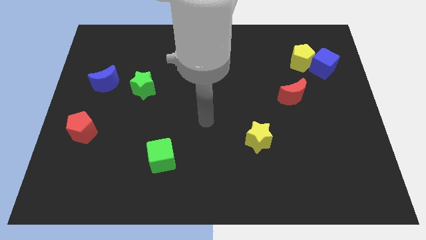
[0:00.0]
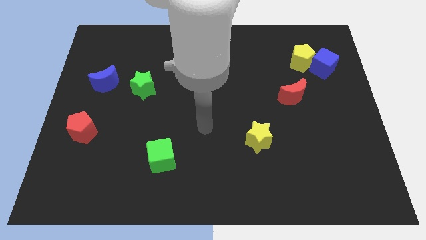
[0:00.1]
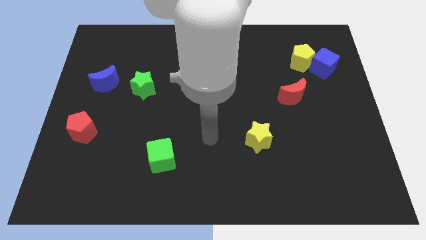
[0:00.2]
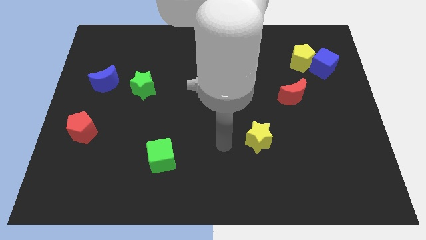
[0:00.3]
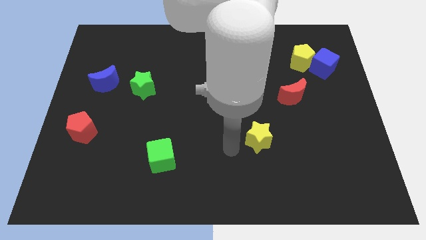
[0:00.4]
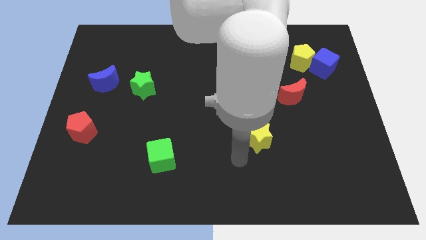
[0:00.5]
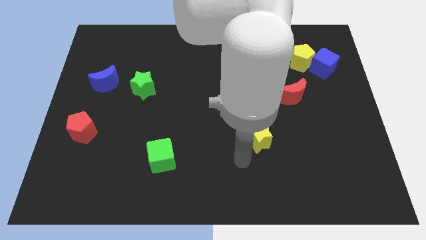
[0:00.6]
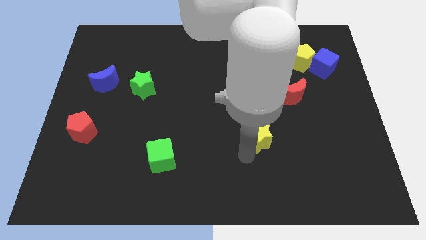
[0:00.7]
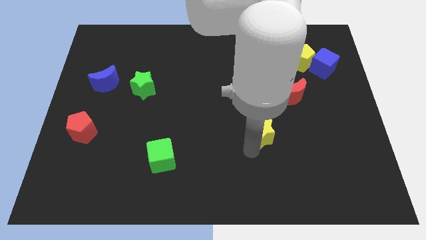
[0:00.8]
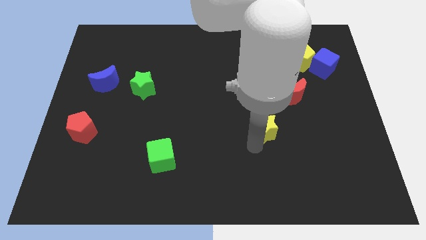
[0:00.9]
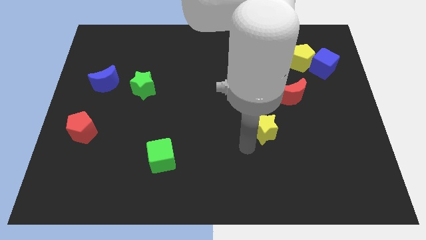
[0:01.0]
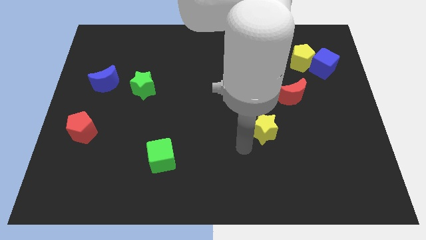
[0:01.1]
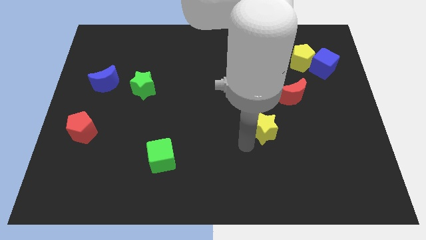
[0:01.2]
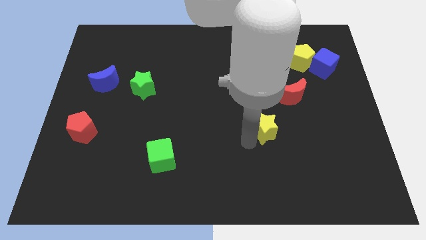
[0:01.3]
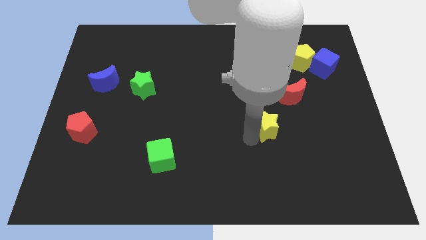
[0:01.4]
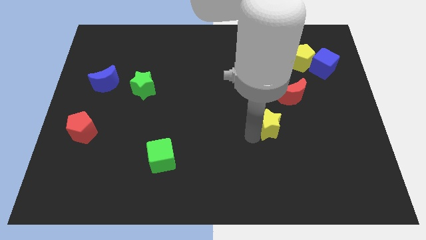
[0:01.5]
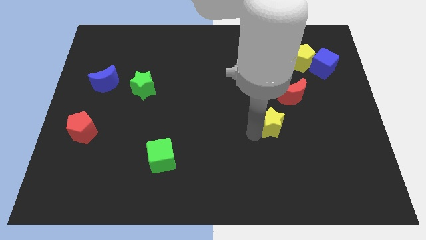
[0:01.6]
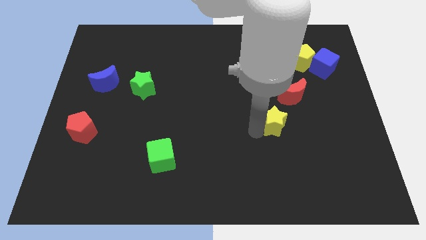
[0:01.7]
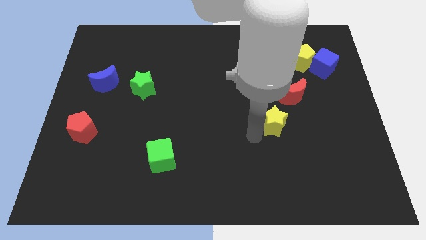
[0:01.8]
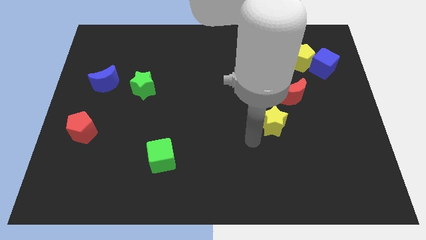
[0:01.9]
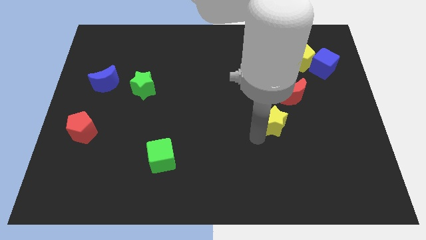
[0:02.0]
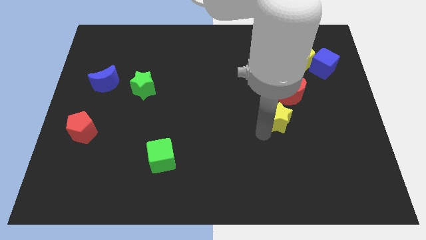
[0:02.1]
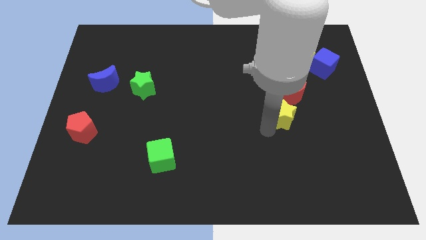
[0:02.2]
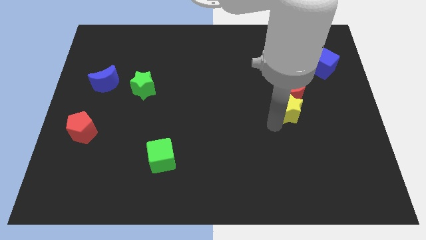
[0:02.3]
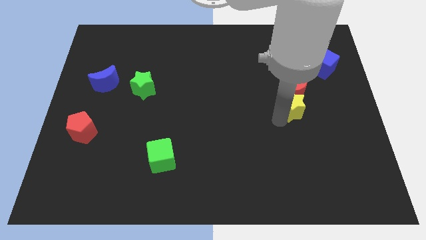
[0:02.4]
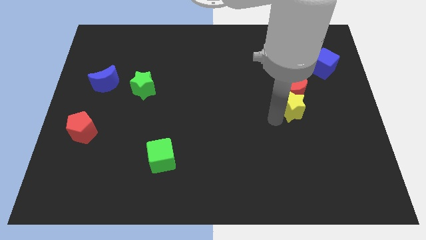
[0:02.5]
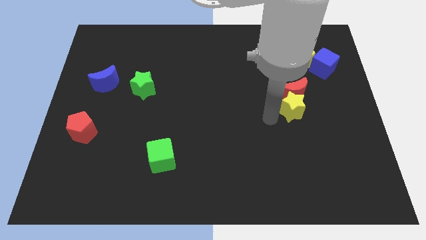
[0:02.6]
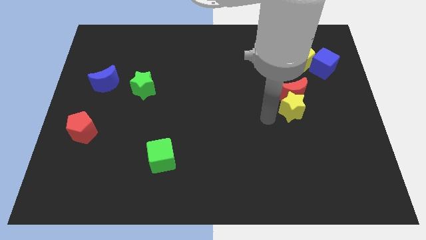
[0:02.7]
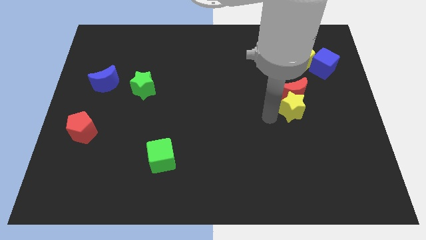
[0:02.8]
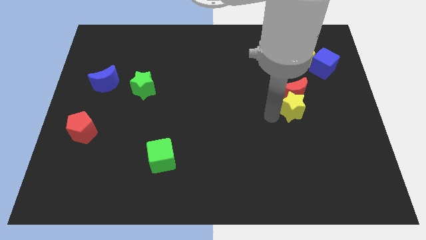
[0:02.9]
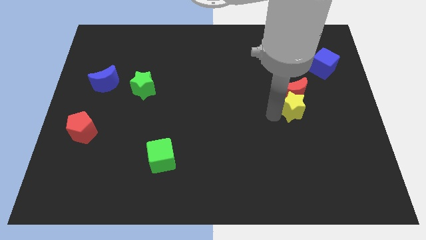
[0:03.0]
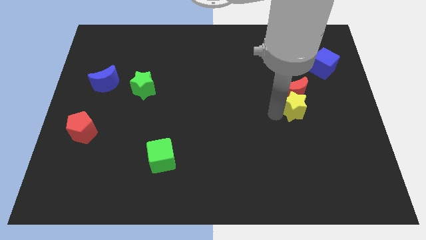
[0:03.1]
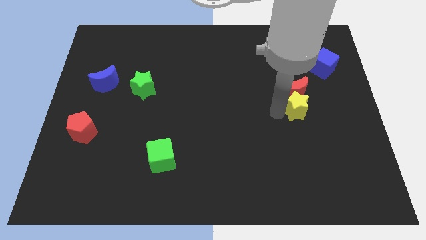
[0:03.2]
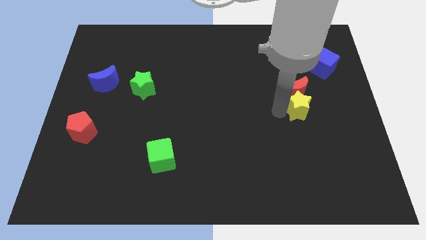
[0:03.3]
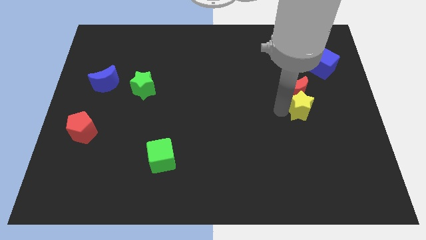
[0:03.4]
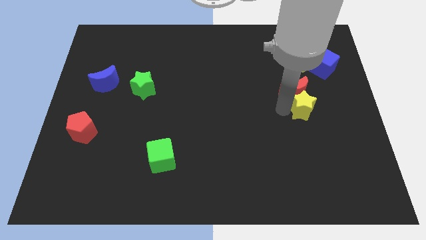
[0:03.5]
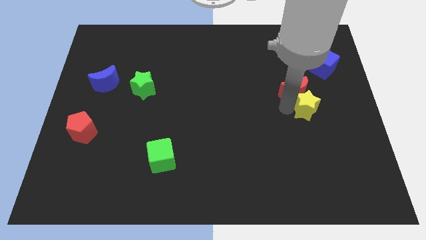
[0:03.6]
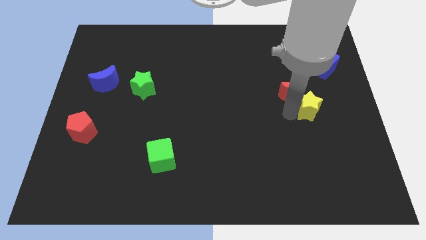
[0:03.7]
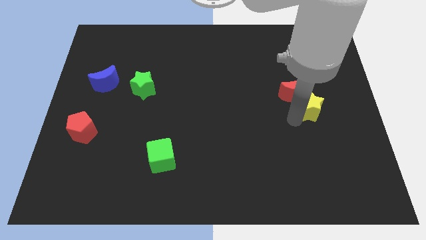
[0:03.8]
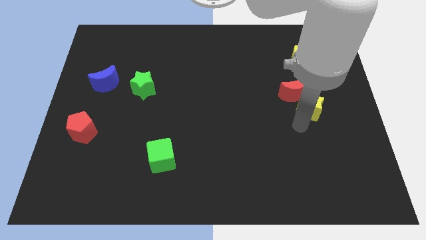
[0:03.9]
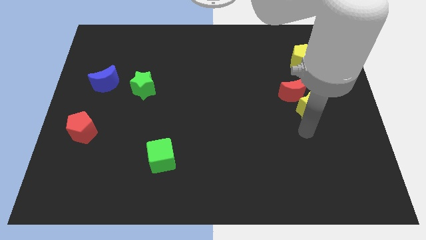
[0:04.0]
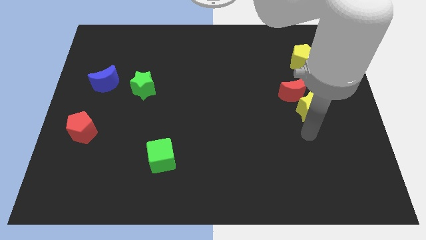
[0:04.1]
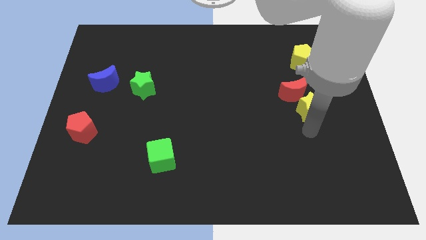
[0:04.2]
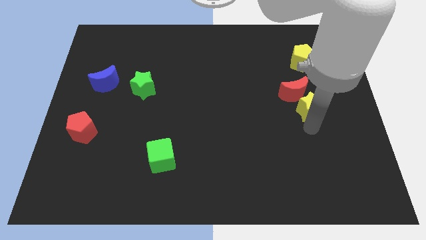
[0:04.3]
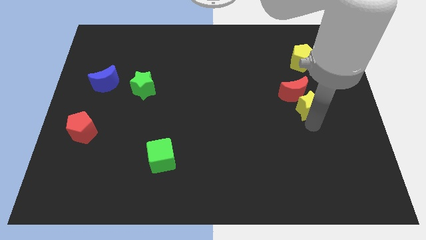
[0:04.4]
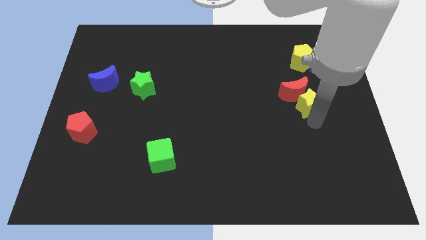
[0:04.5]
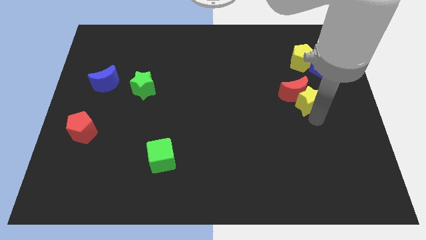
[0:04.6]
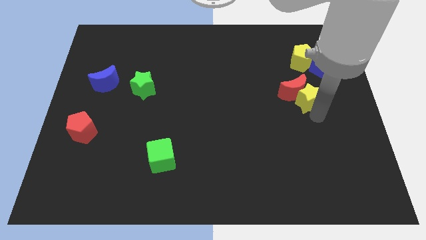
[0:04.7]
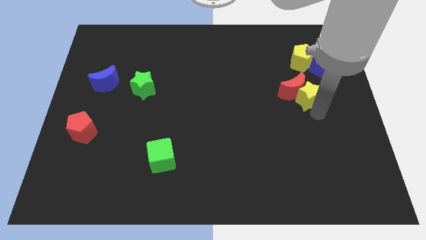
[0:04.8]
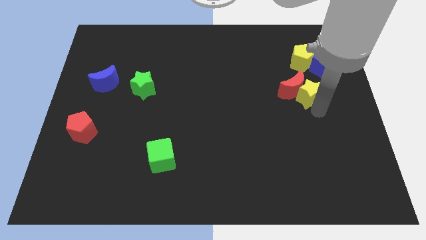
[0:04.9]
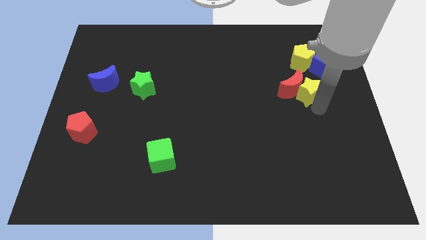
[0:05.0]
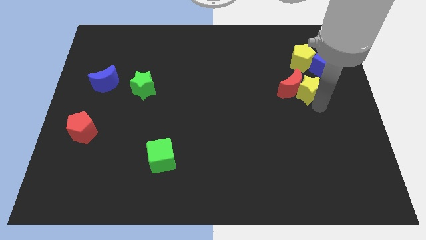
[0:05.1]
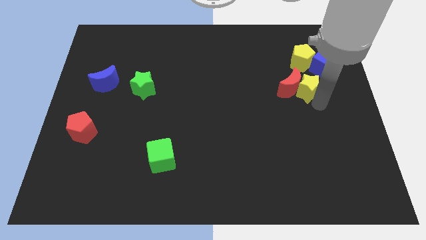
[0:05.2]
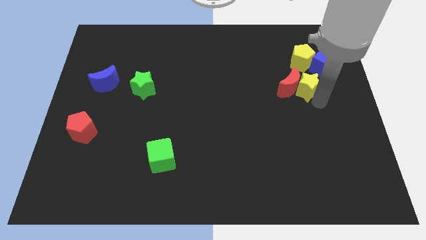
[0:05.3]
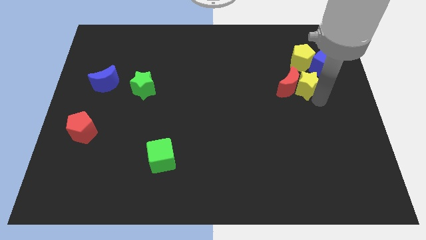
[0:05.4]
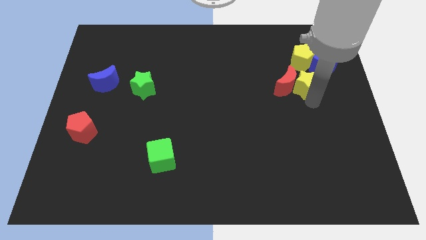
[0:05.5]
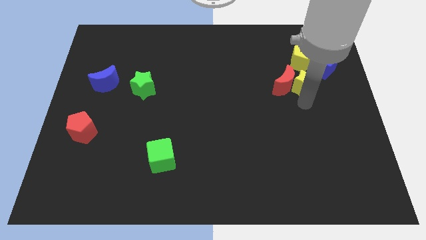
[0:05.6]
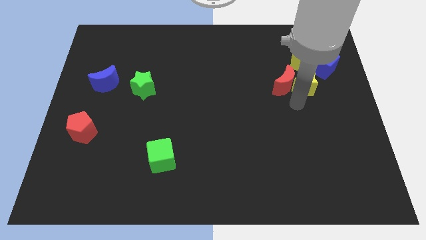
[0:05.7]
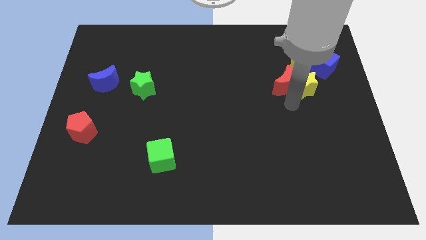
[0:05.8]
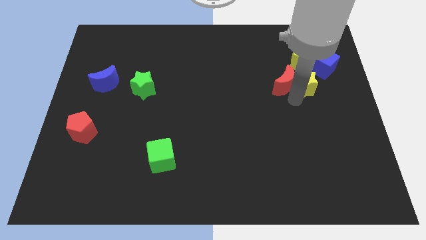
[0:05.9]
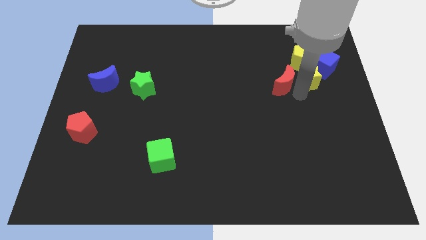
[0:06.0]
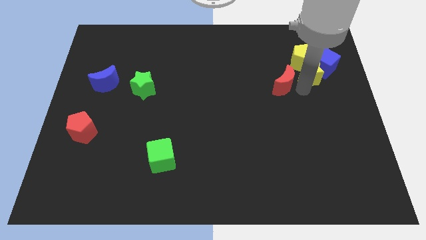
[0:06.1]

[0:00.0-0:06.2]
move the yellow star to the blue cube

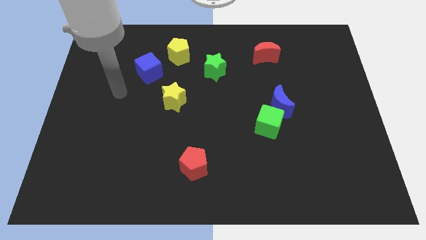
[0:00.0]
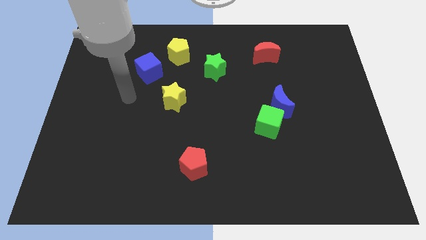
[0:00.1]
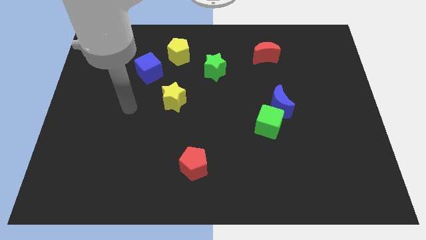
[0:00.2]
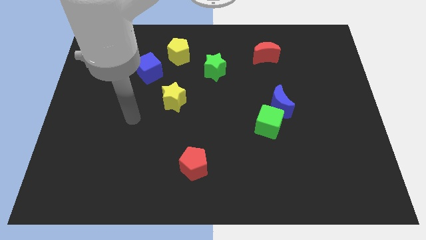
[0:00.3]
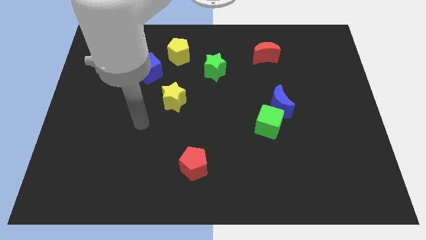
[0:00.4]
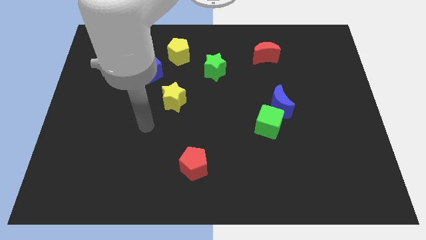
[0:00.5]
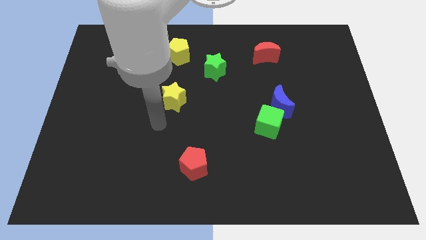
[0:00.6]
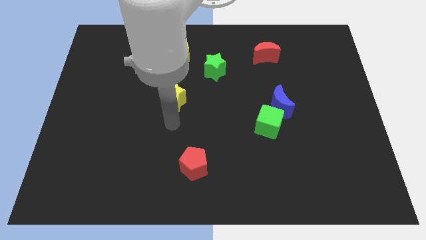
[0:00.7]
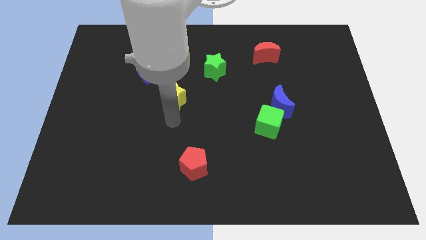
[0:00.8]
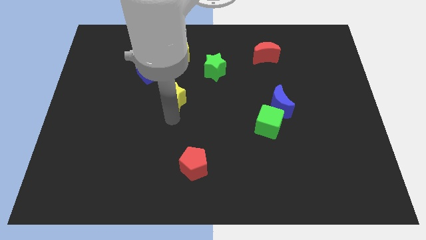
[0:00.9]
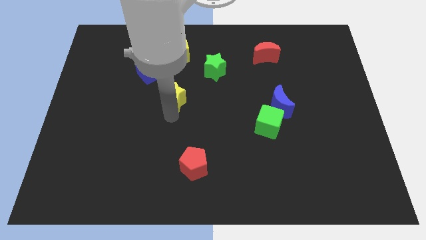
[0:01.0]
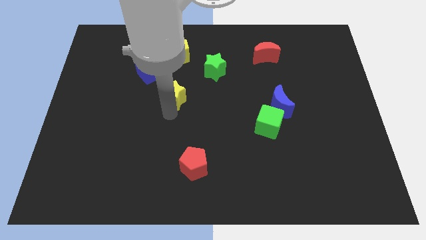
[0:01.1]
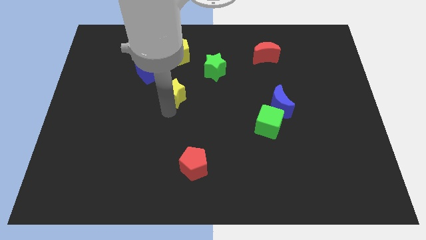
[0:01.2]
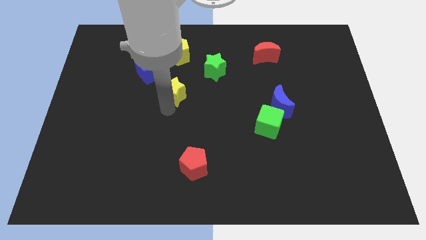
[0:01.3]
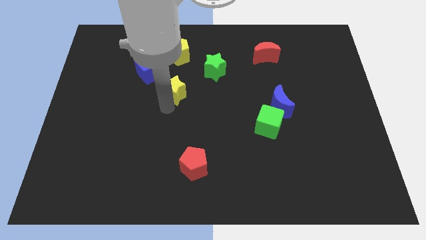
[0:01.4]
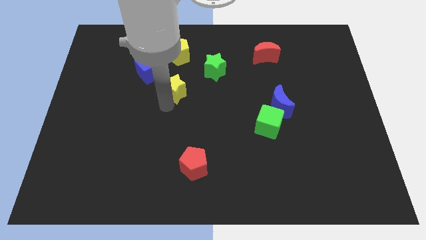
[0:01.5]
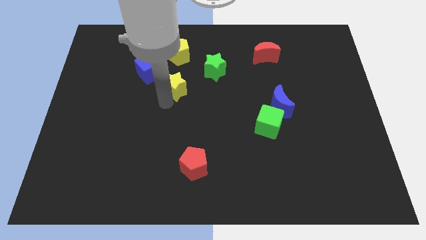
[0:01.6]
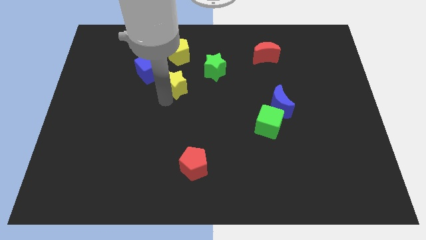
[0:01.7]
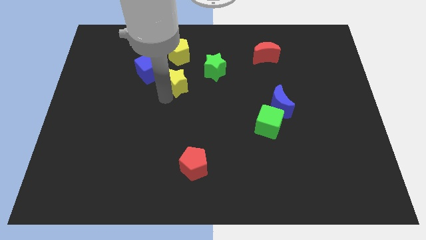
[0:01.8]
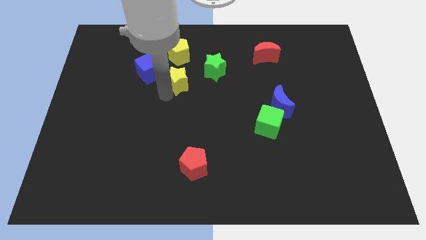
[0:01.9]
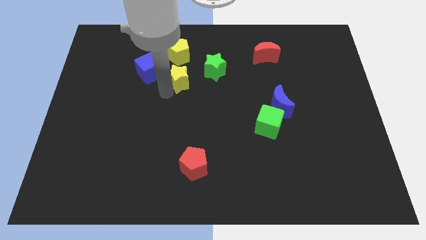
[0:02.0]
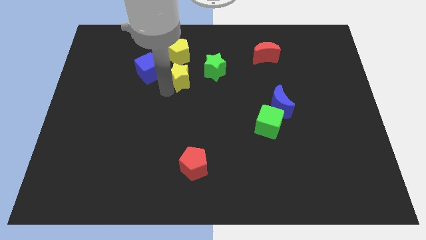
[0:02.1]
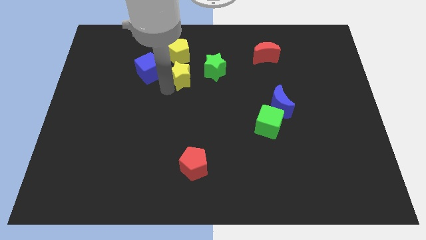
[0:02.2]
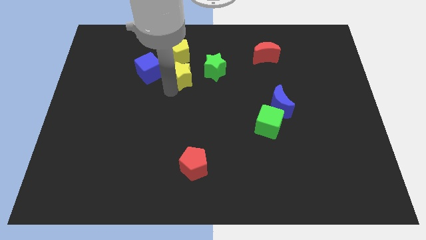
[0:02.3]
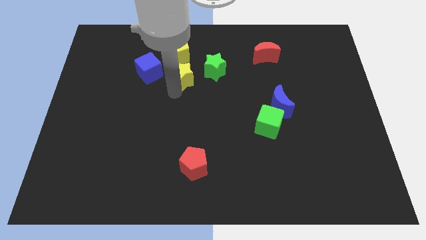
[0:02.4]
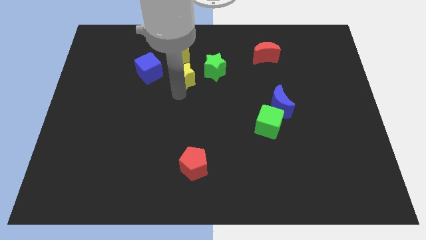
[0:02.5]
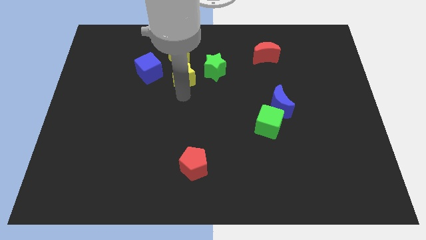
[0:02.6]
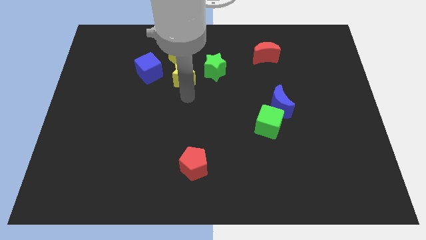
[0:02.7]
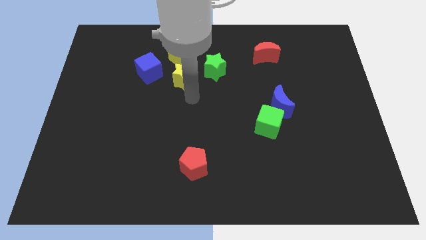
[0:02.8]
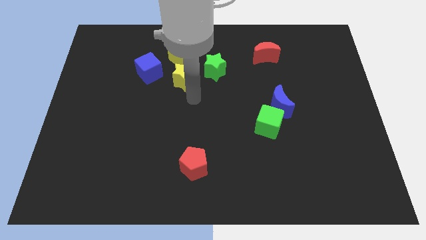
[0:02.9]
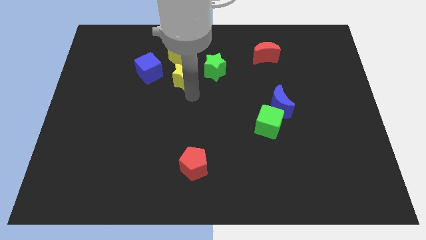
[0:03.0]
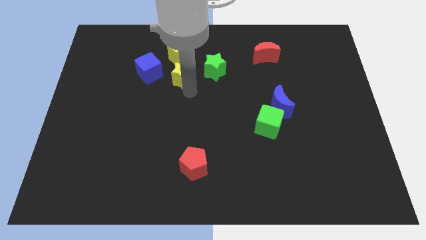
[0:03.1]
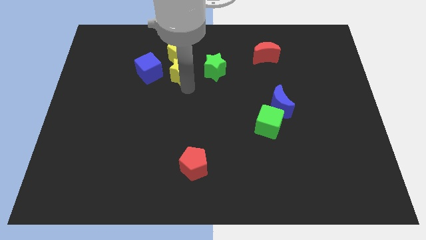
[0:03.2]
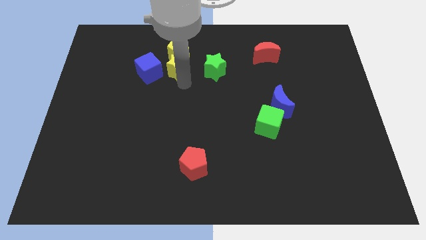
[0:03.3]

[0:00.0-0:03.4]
move the yellow star next to the yellow pentagon
